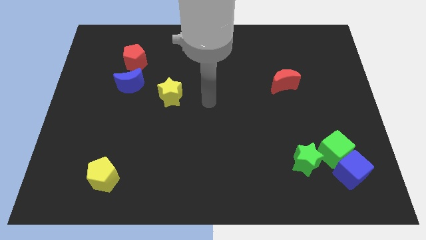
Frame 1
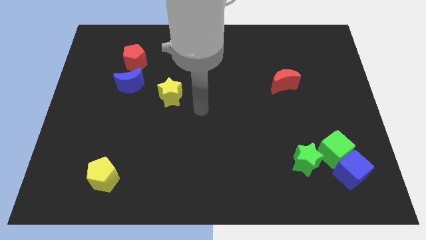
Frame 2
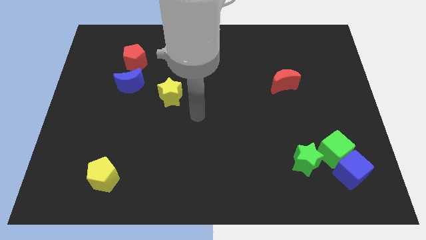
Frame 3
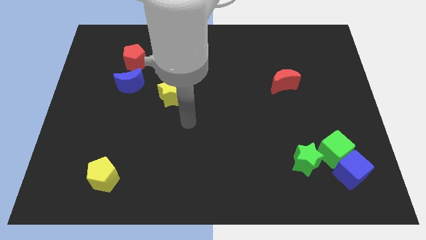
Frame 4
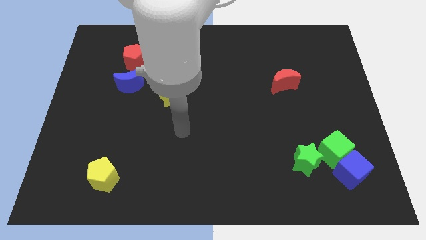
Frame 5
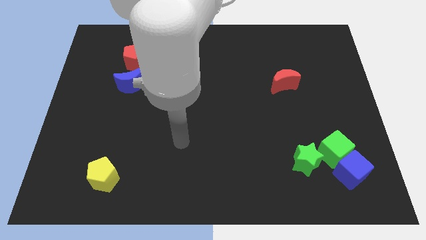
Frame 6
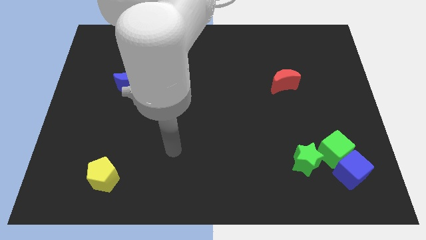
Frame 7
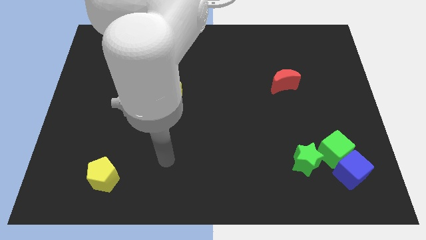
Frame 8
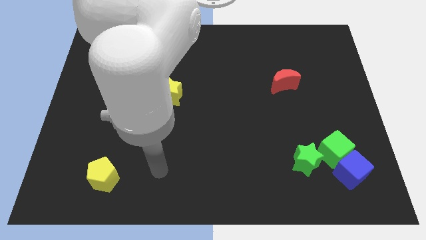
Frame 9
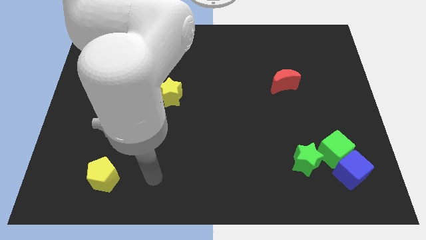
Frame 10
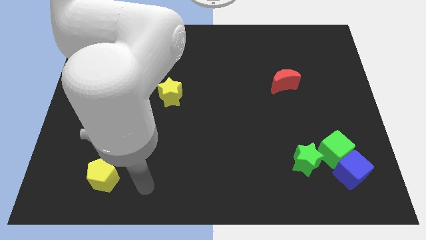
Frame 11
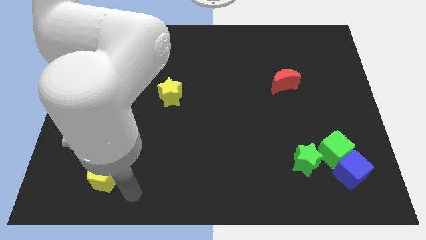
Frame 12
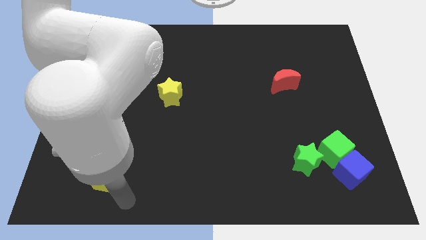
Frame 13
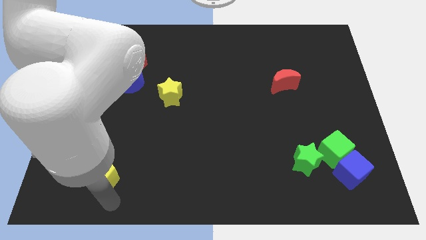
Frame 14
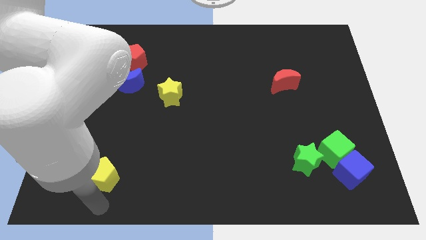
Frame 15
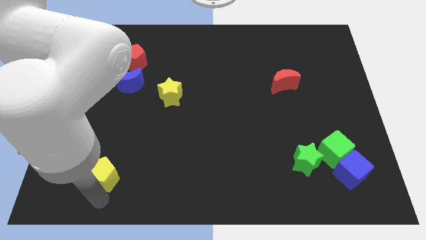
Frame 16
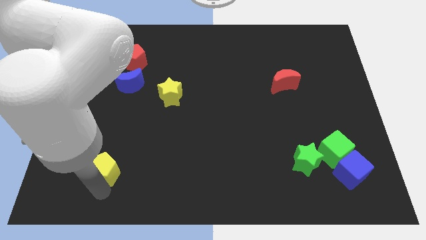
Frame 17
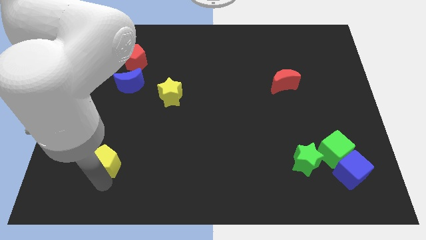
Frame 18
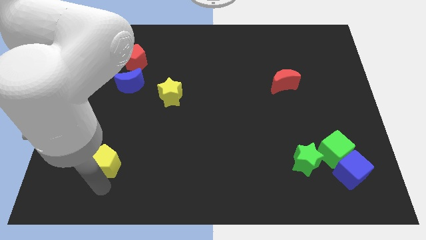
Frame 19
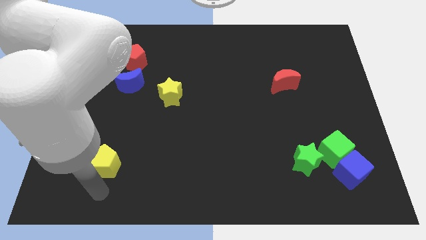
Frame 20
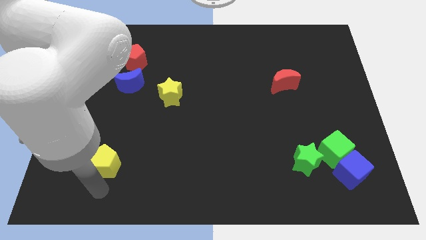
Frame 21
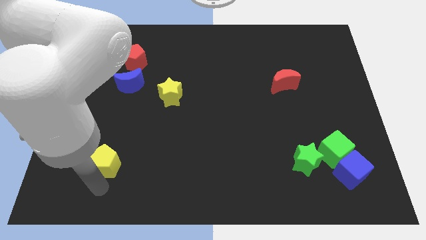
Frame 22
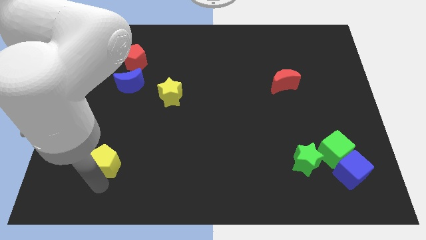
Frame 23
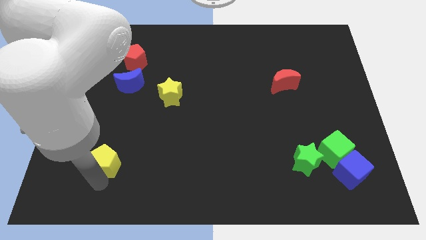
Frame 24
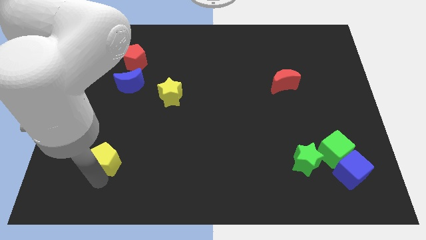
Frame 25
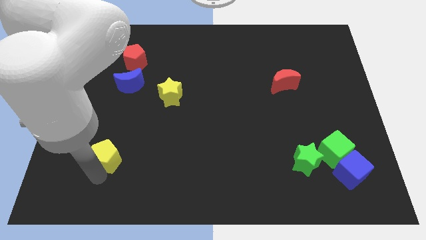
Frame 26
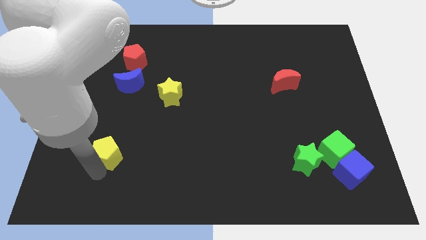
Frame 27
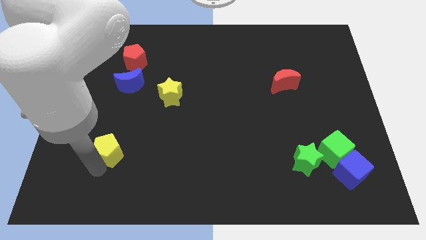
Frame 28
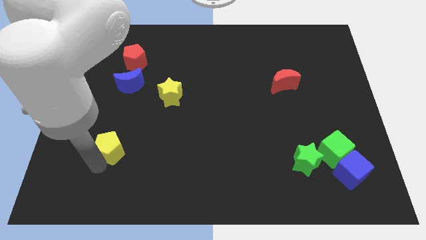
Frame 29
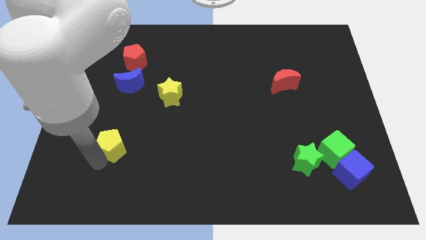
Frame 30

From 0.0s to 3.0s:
push the yellow pentagon slightly up

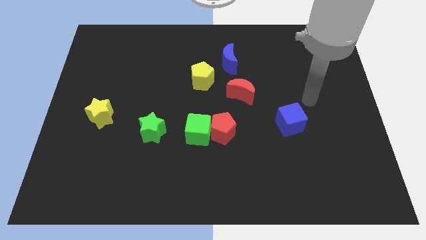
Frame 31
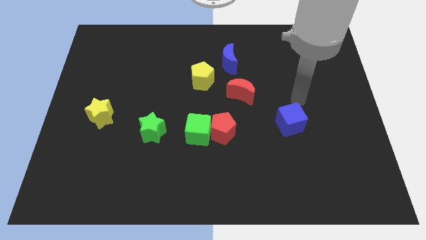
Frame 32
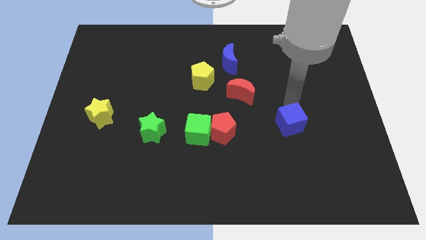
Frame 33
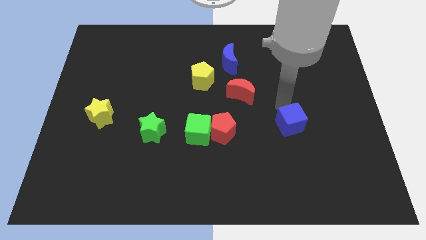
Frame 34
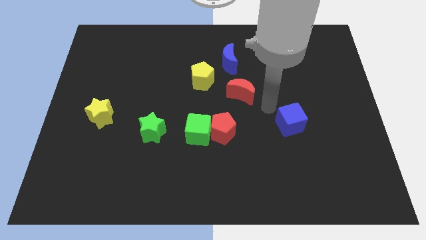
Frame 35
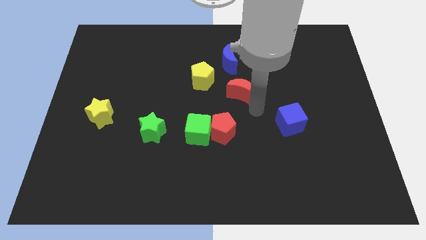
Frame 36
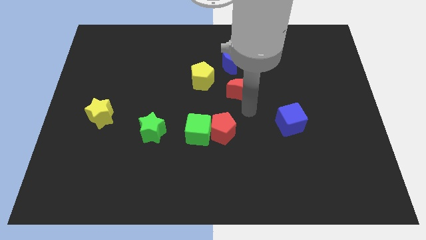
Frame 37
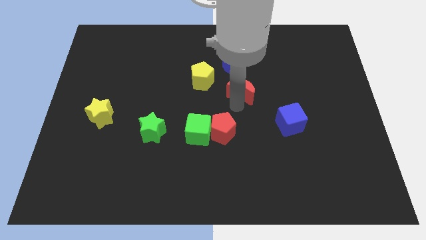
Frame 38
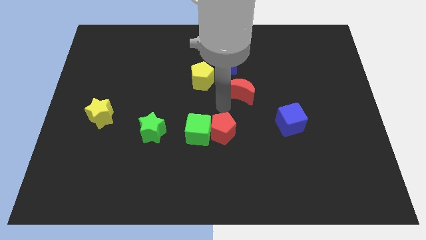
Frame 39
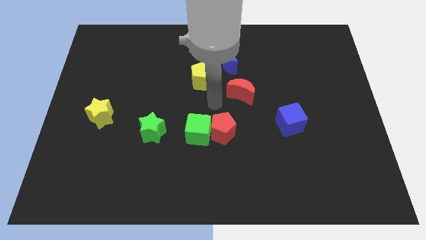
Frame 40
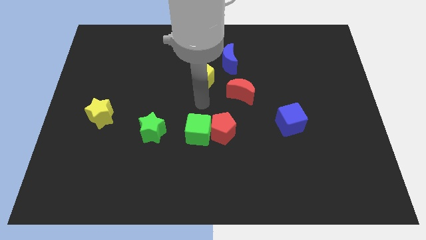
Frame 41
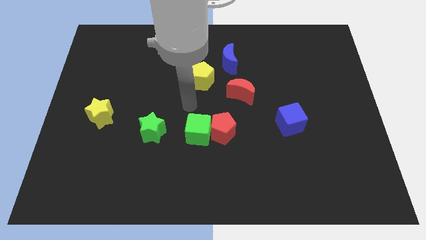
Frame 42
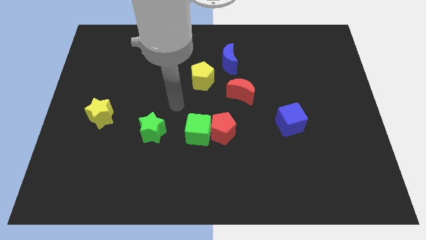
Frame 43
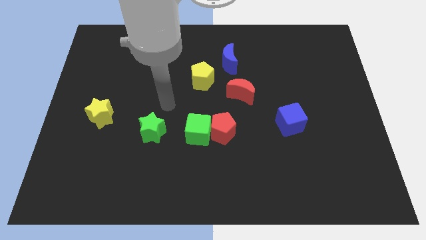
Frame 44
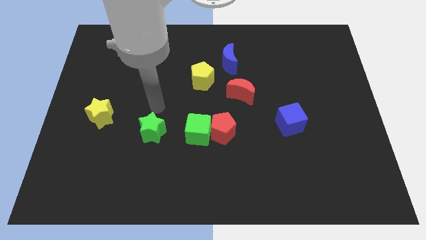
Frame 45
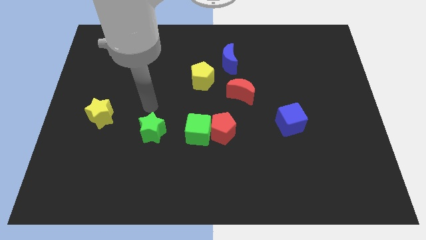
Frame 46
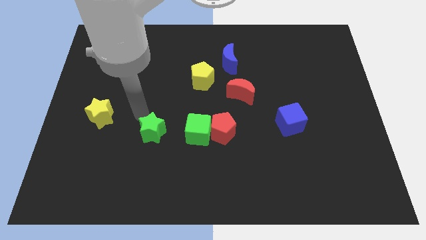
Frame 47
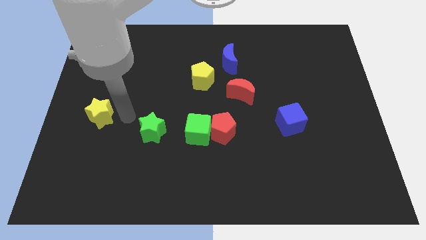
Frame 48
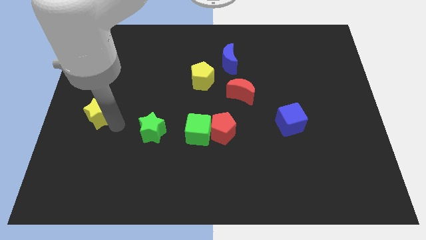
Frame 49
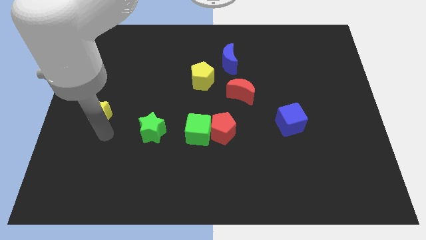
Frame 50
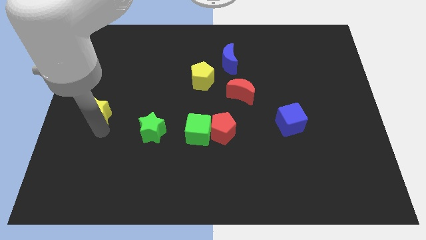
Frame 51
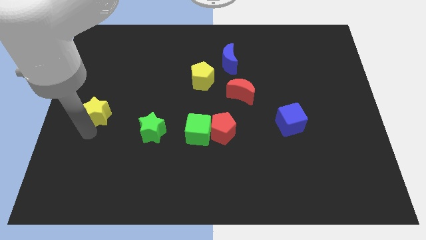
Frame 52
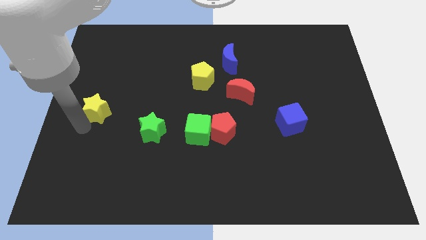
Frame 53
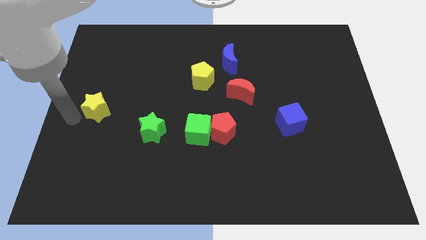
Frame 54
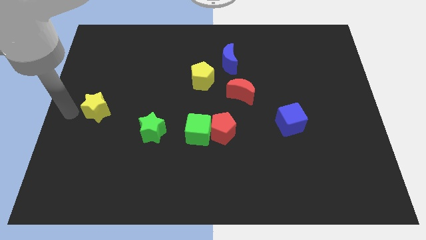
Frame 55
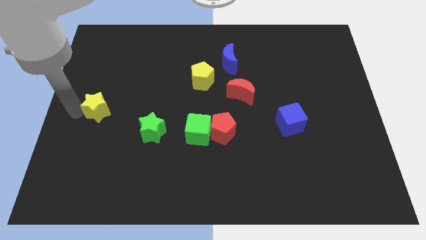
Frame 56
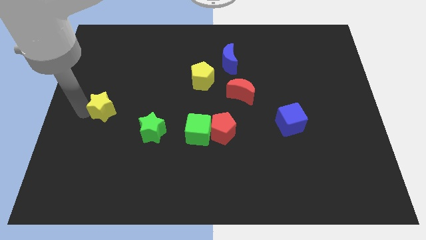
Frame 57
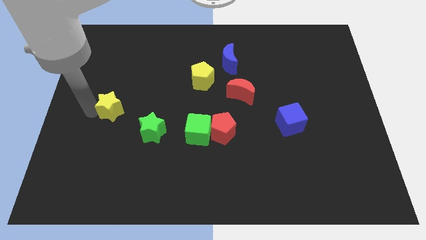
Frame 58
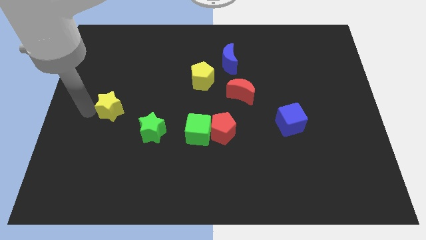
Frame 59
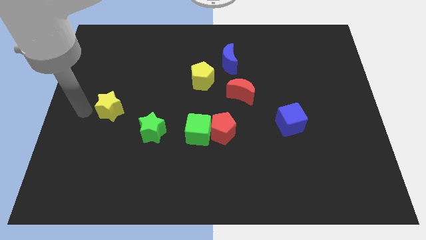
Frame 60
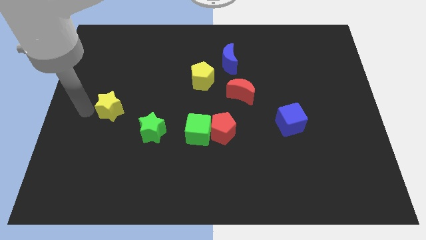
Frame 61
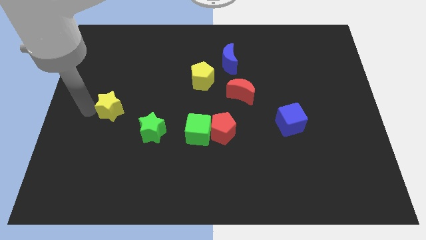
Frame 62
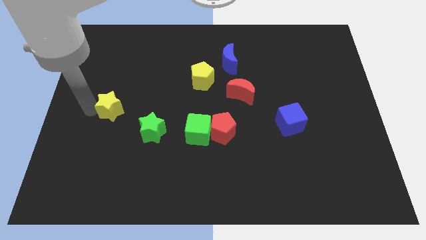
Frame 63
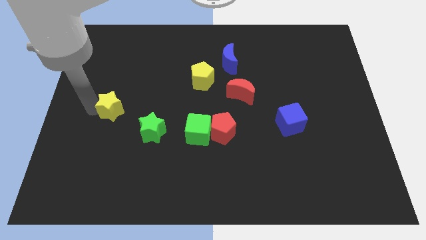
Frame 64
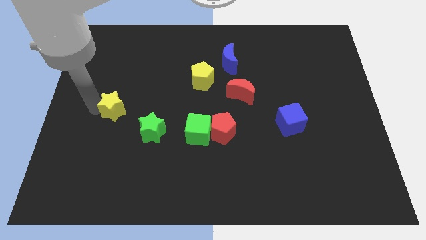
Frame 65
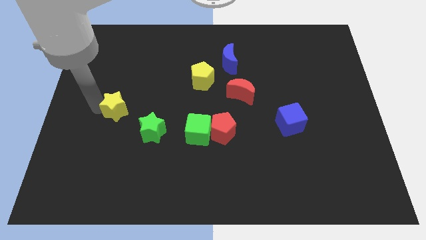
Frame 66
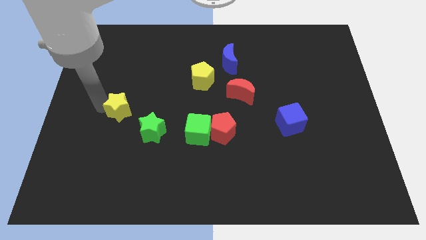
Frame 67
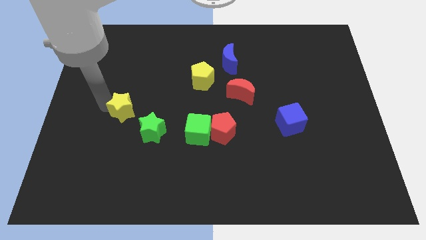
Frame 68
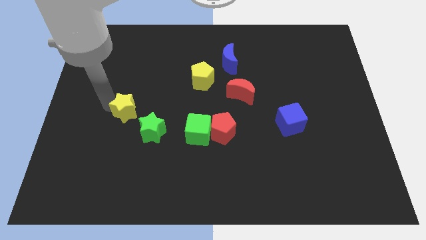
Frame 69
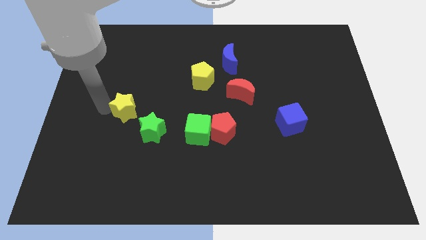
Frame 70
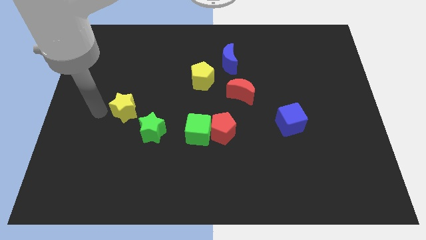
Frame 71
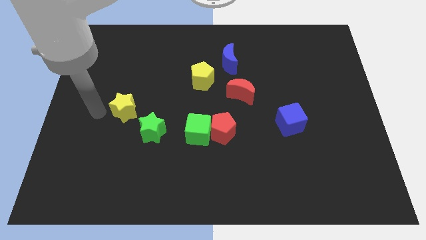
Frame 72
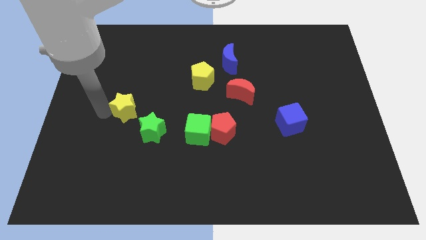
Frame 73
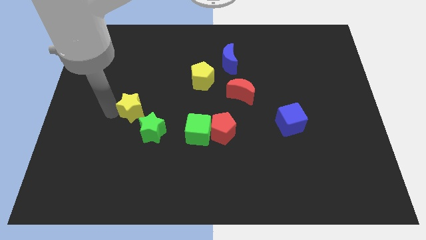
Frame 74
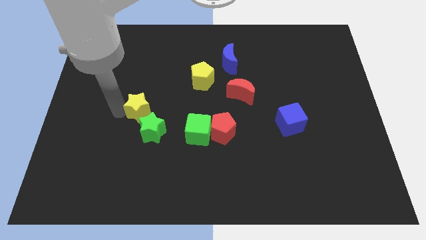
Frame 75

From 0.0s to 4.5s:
push the yellow star to the right a bit

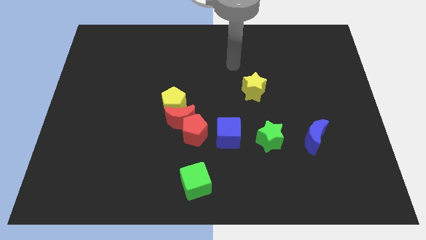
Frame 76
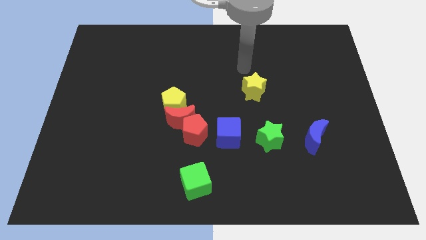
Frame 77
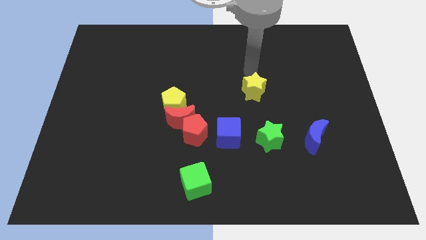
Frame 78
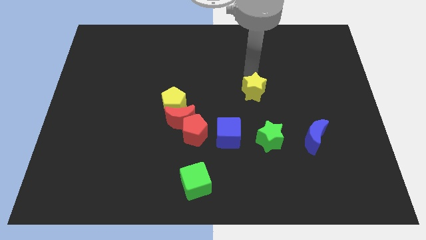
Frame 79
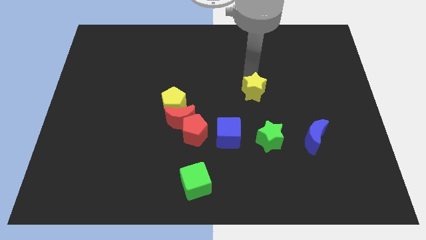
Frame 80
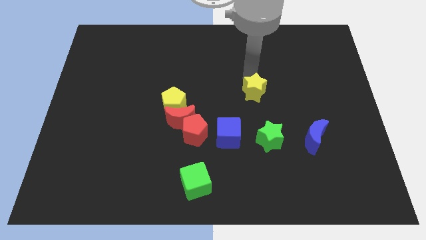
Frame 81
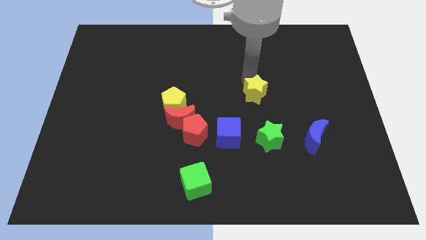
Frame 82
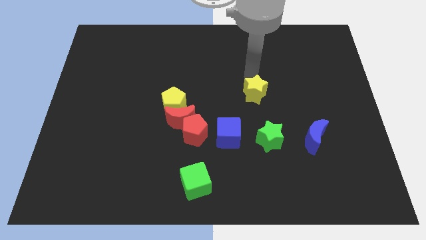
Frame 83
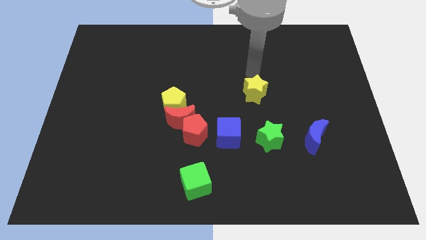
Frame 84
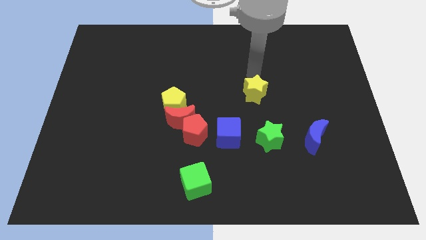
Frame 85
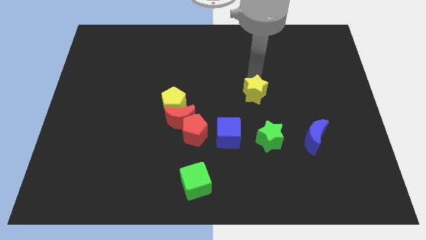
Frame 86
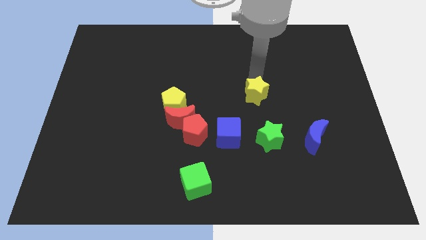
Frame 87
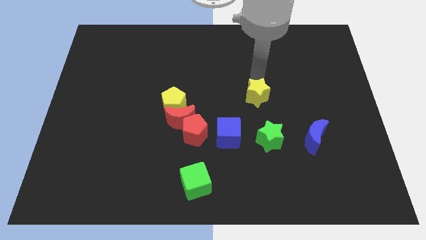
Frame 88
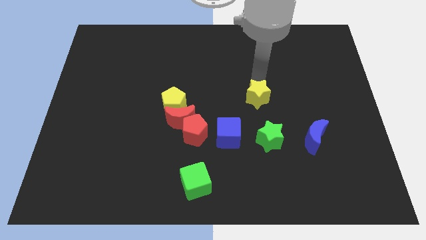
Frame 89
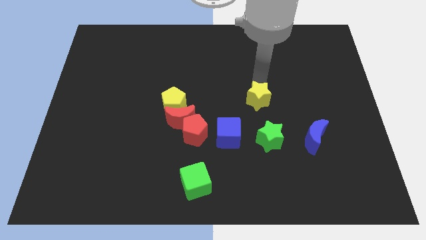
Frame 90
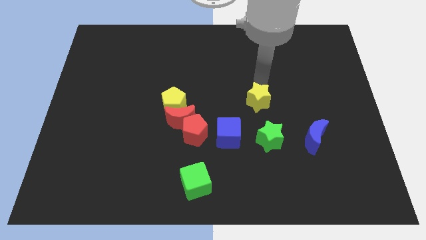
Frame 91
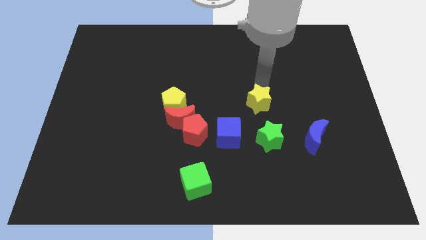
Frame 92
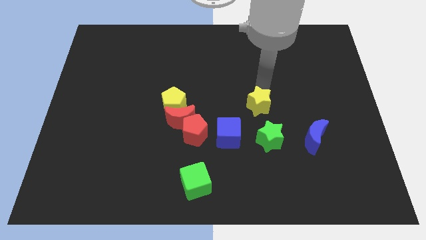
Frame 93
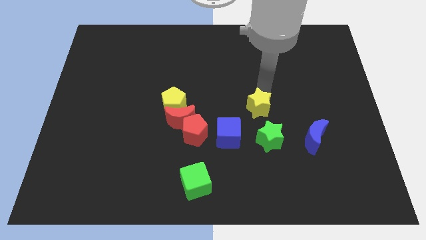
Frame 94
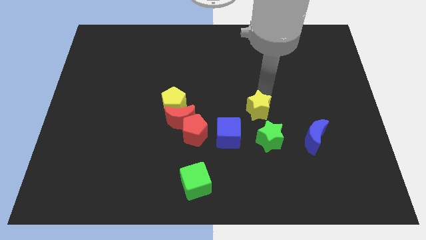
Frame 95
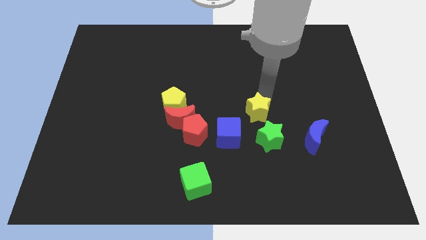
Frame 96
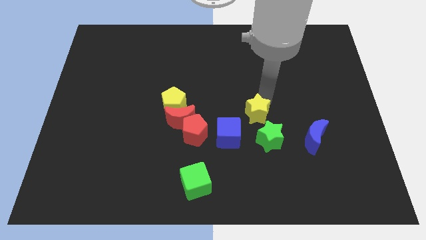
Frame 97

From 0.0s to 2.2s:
move the yellow star downwards somewhat
